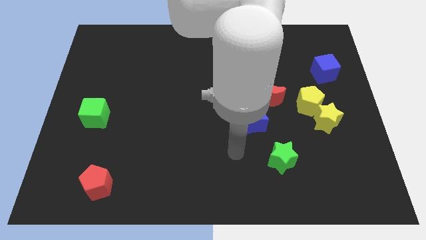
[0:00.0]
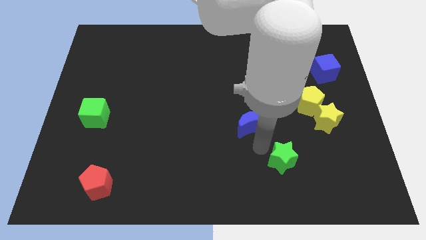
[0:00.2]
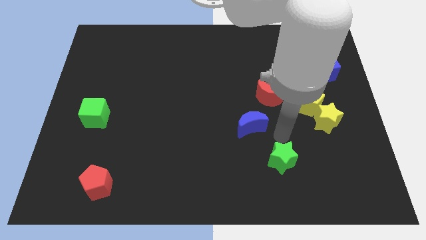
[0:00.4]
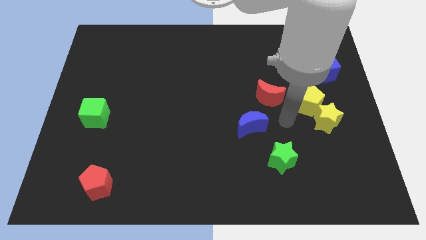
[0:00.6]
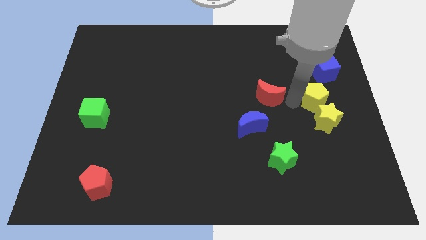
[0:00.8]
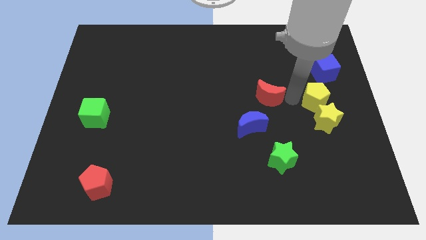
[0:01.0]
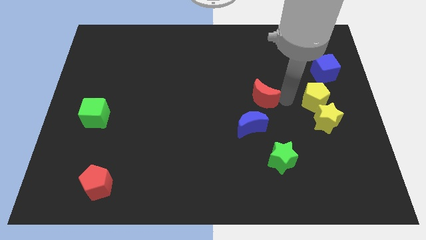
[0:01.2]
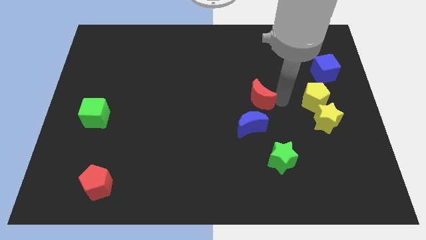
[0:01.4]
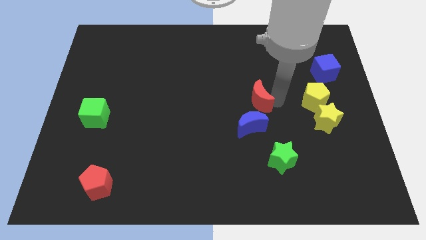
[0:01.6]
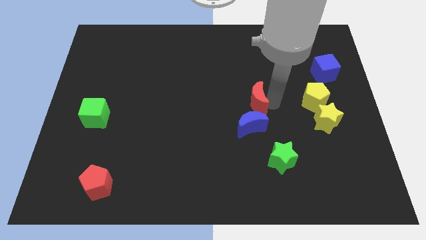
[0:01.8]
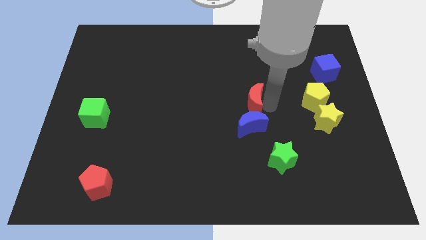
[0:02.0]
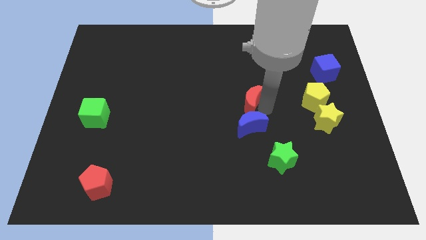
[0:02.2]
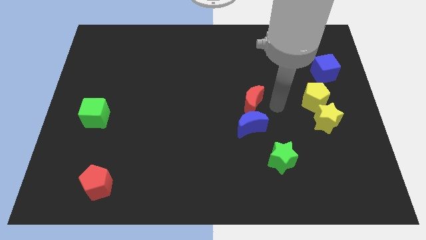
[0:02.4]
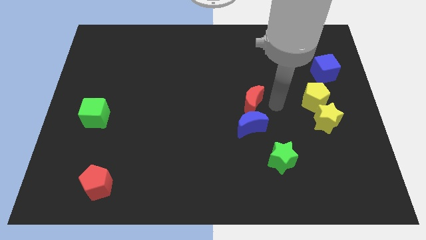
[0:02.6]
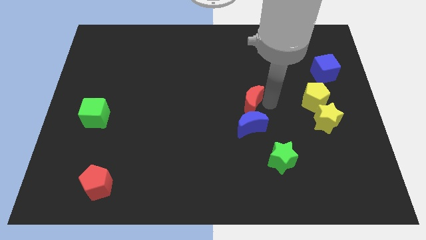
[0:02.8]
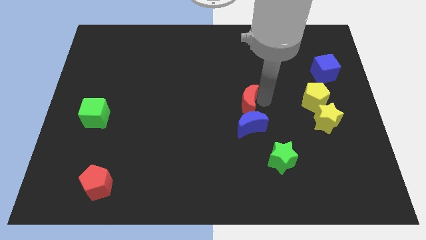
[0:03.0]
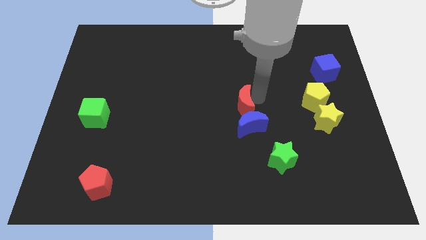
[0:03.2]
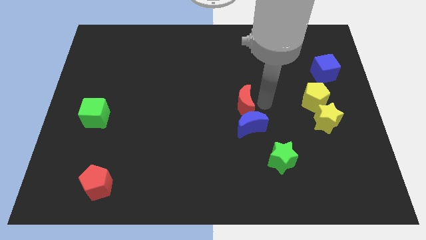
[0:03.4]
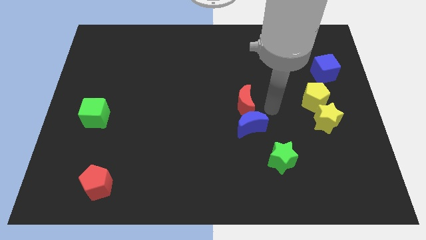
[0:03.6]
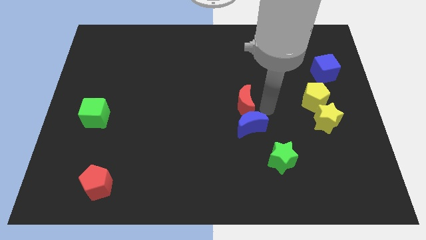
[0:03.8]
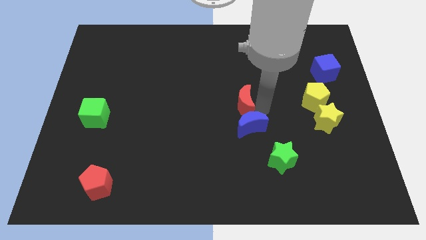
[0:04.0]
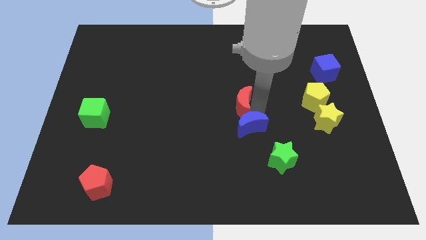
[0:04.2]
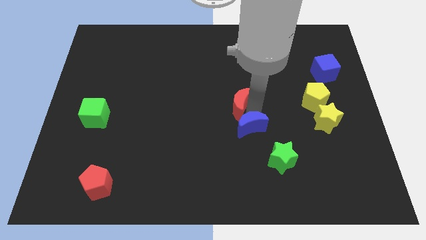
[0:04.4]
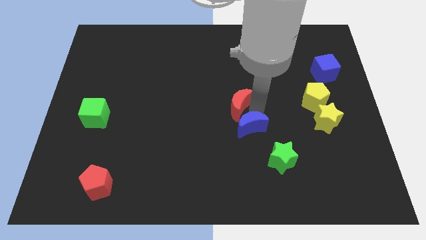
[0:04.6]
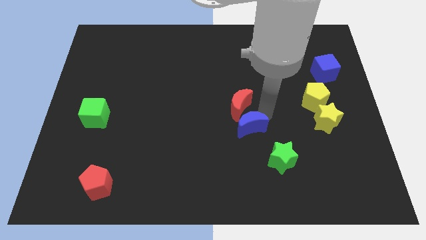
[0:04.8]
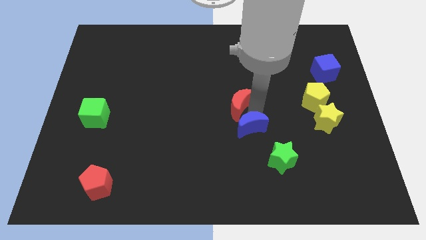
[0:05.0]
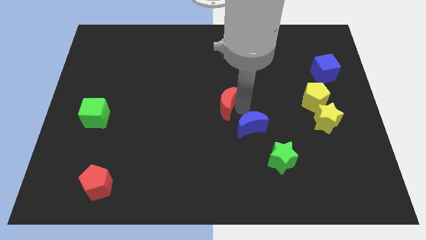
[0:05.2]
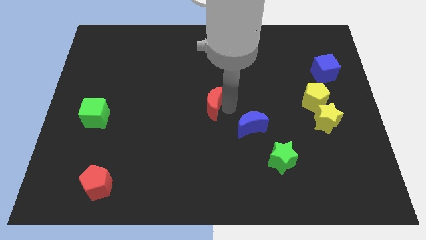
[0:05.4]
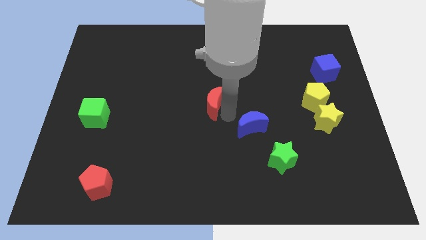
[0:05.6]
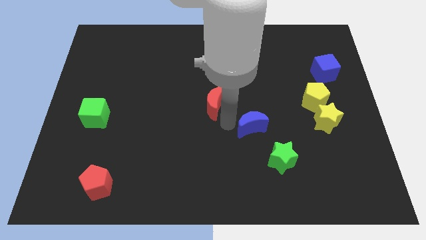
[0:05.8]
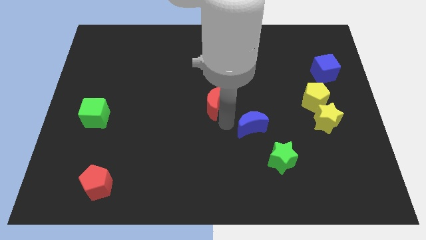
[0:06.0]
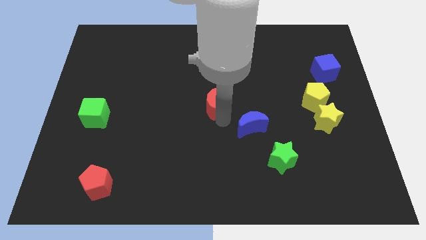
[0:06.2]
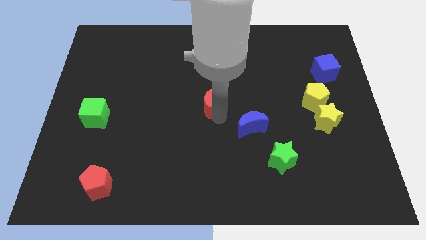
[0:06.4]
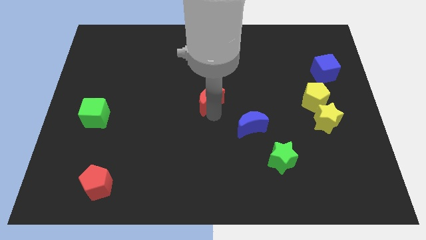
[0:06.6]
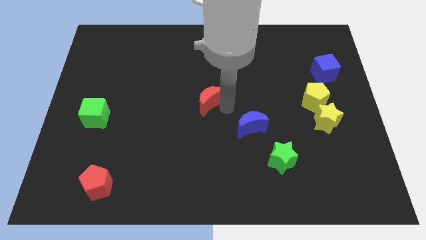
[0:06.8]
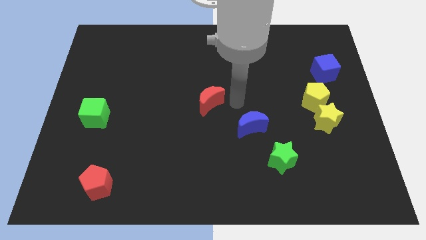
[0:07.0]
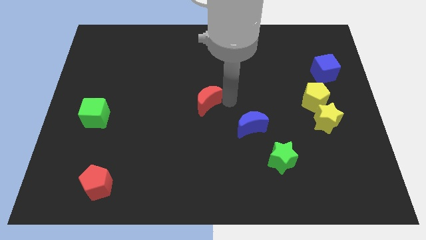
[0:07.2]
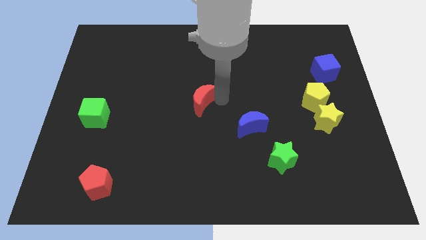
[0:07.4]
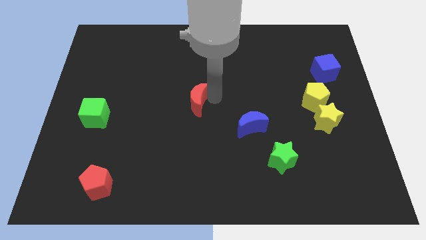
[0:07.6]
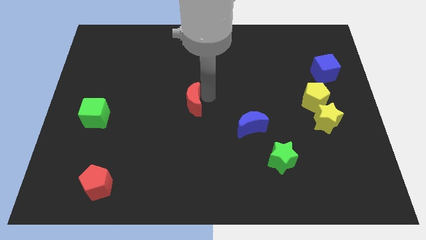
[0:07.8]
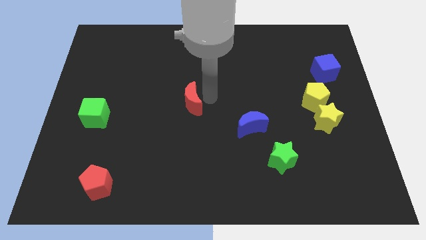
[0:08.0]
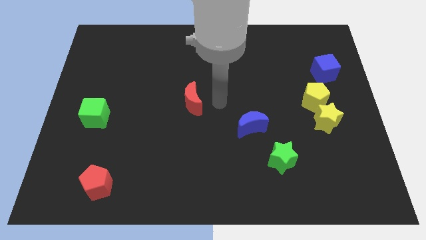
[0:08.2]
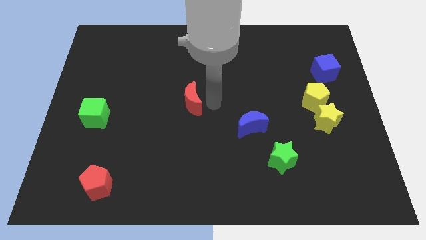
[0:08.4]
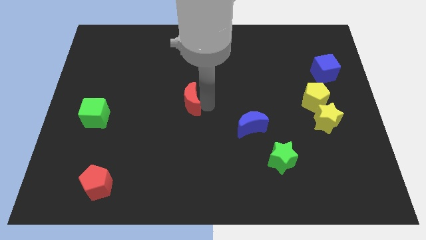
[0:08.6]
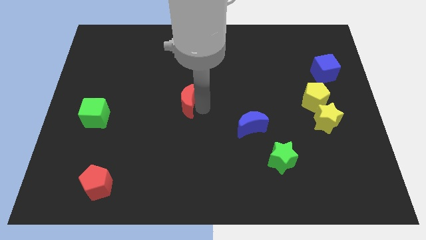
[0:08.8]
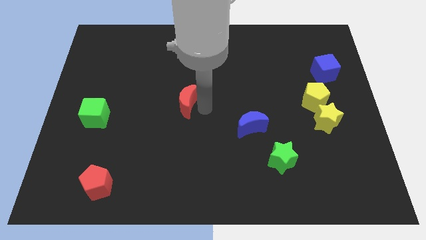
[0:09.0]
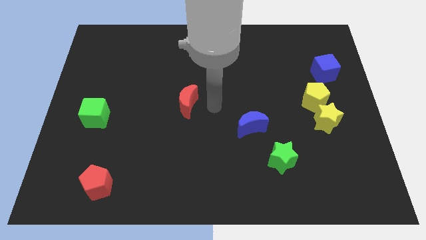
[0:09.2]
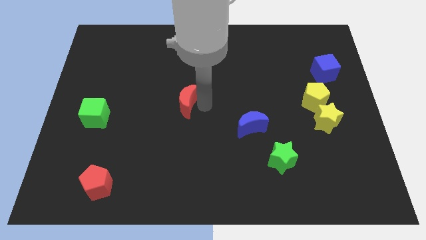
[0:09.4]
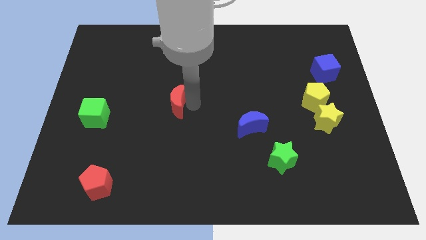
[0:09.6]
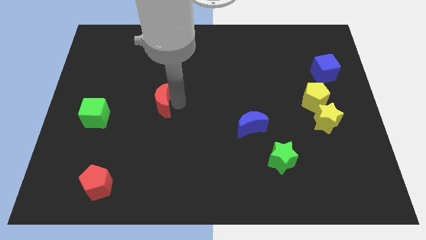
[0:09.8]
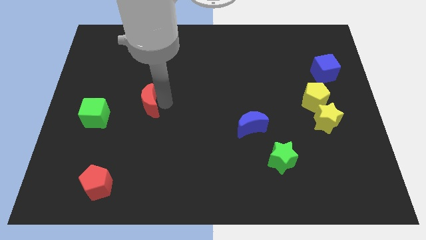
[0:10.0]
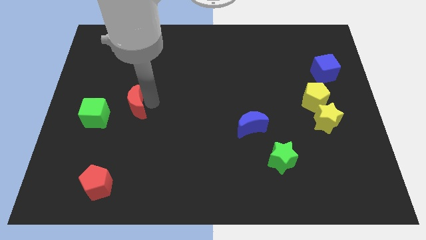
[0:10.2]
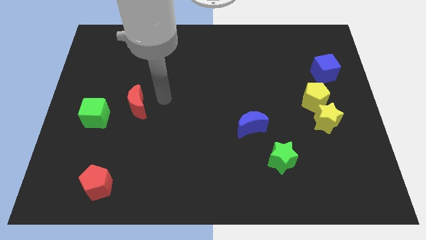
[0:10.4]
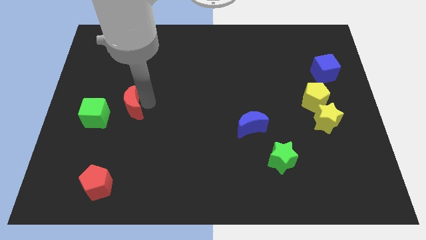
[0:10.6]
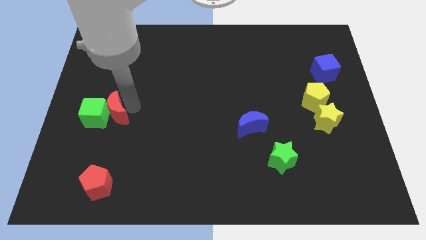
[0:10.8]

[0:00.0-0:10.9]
slide the red moon close to the green cube

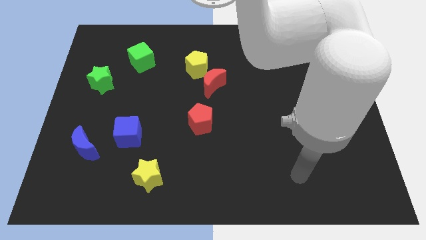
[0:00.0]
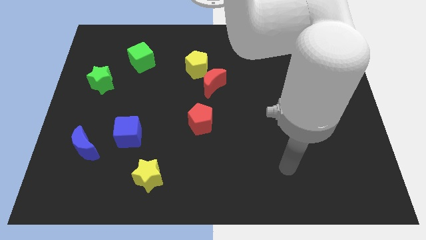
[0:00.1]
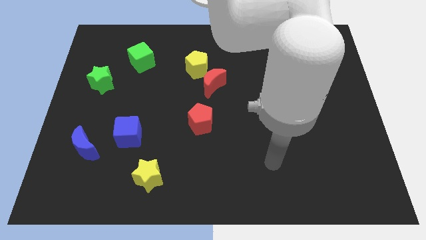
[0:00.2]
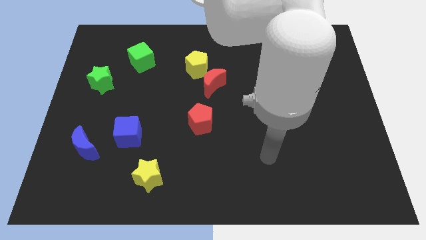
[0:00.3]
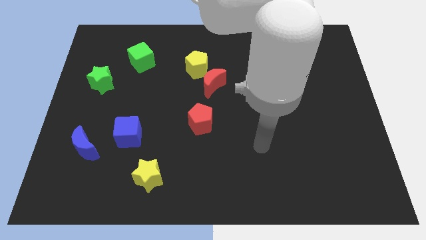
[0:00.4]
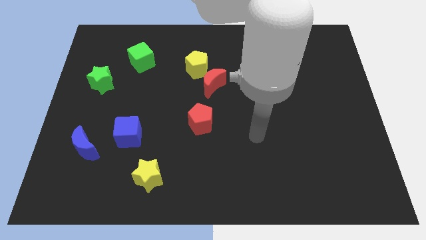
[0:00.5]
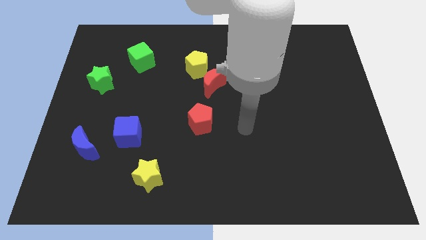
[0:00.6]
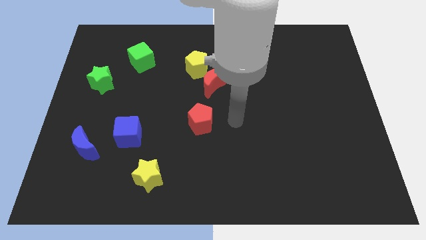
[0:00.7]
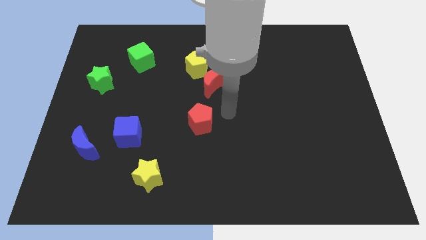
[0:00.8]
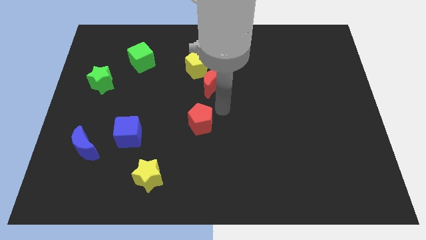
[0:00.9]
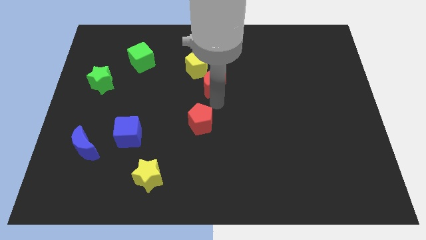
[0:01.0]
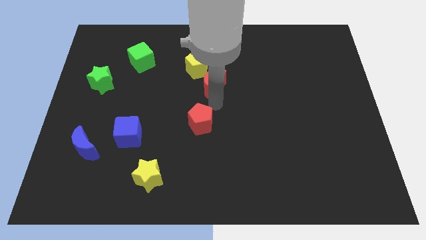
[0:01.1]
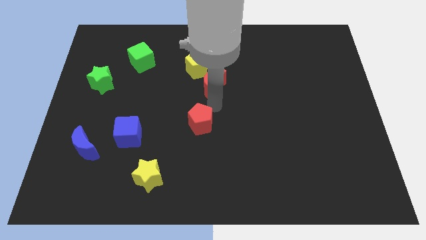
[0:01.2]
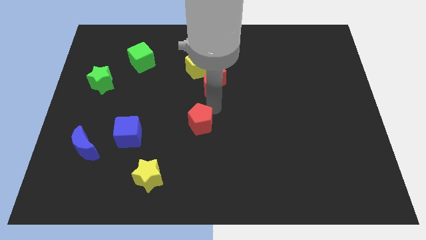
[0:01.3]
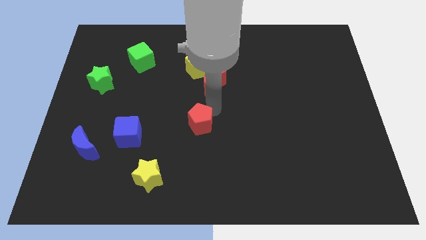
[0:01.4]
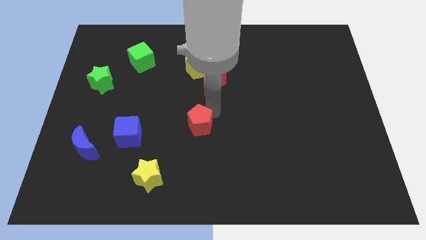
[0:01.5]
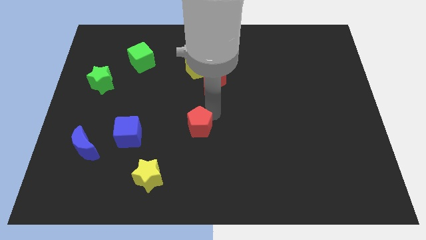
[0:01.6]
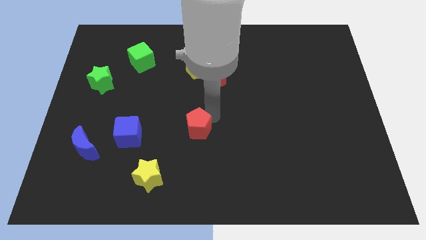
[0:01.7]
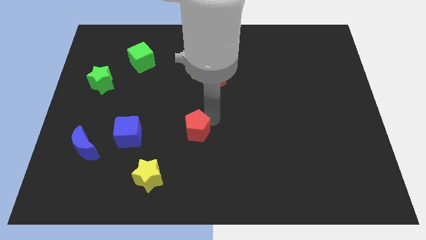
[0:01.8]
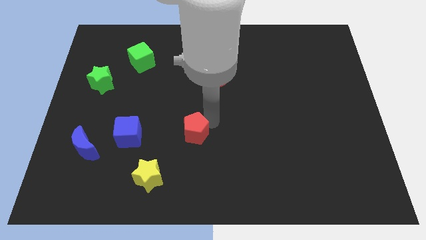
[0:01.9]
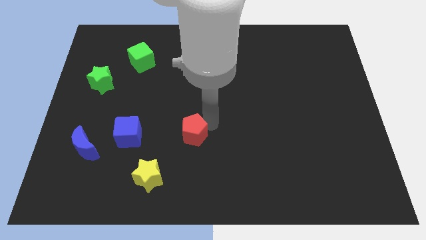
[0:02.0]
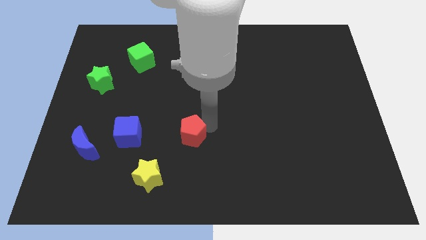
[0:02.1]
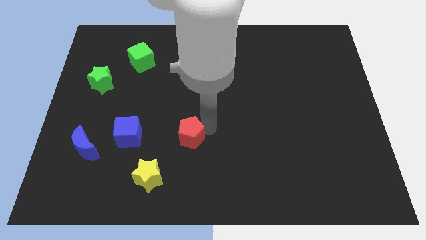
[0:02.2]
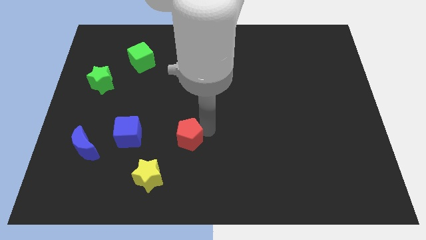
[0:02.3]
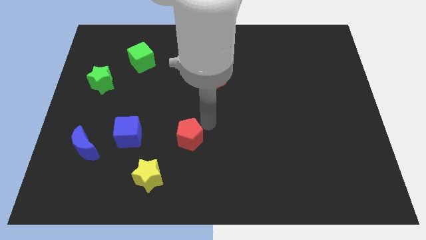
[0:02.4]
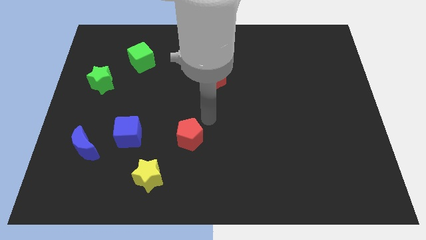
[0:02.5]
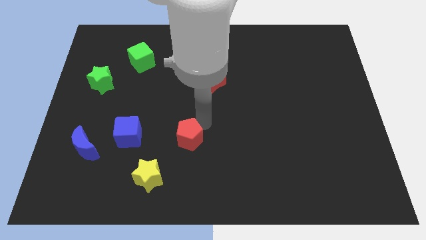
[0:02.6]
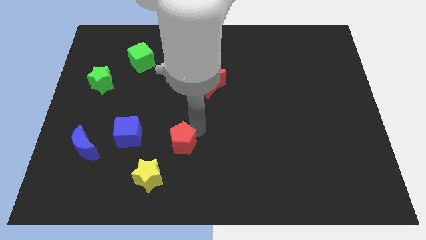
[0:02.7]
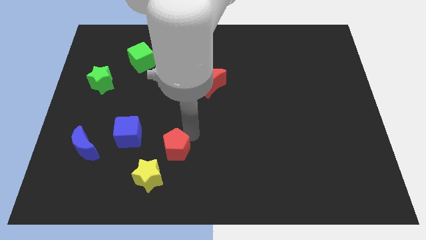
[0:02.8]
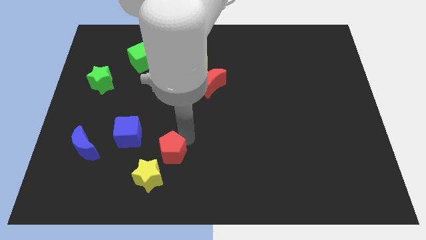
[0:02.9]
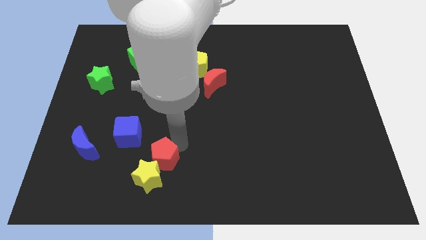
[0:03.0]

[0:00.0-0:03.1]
put the red pentagon to the yellow star
